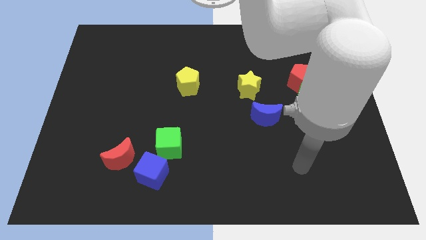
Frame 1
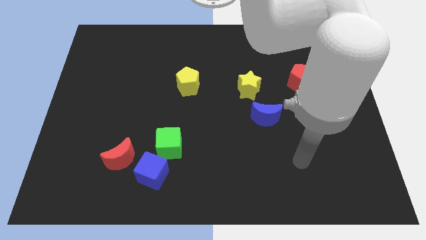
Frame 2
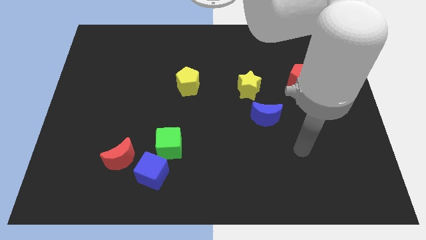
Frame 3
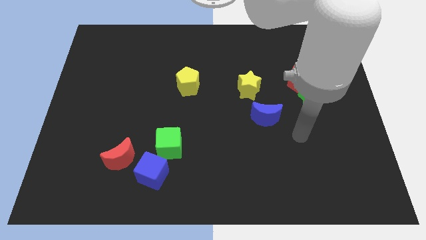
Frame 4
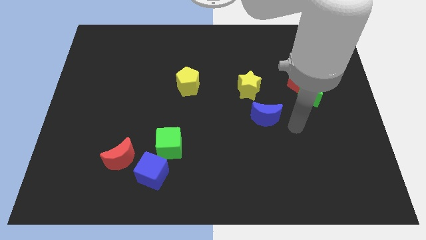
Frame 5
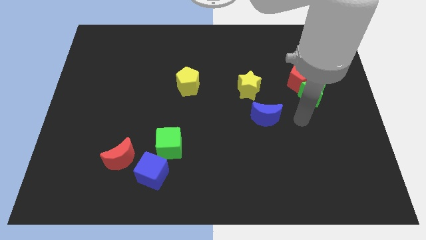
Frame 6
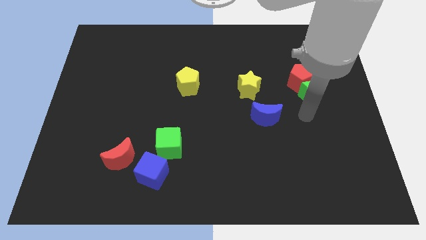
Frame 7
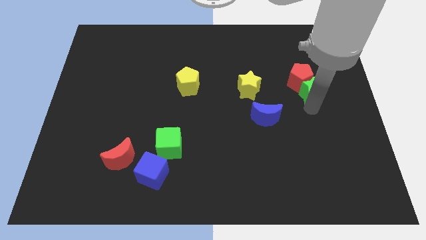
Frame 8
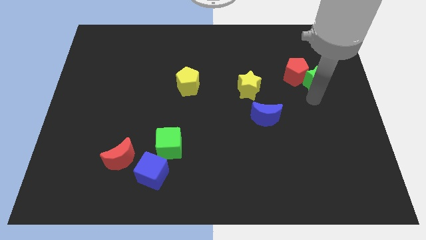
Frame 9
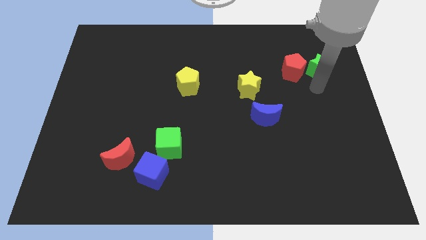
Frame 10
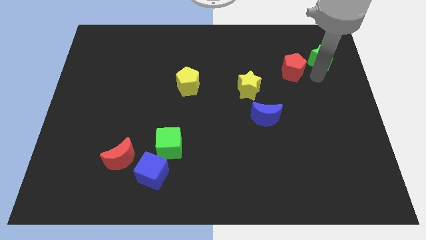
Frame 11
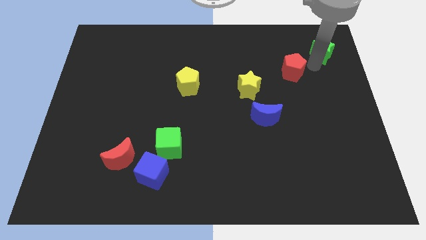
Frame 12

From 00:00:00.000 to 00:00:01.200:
pull the red pentagon apart from the green star

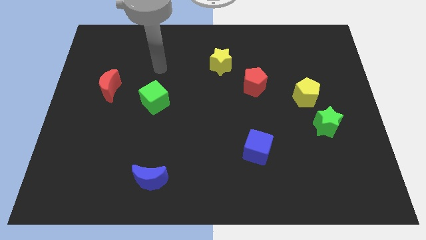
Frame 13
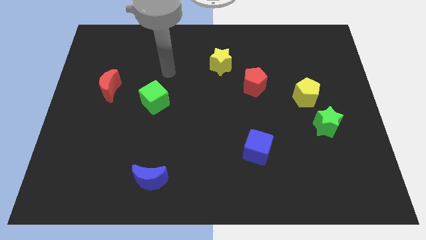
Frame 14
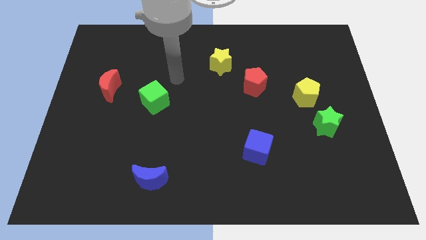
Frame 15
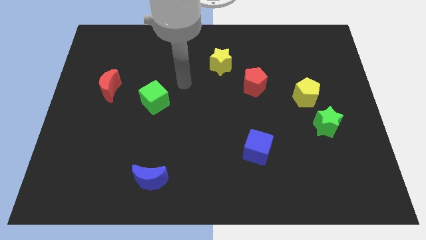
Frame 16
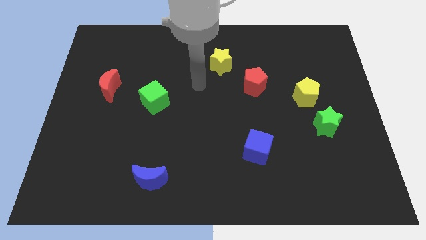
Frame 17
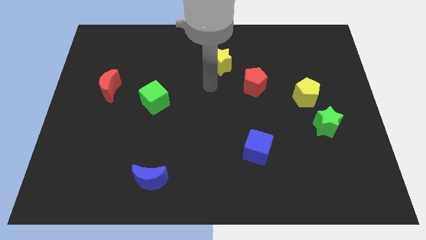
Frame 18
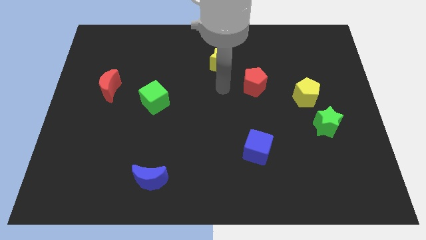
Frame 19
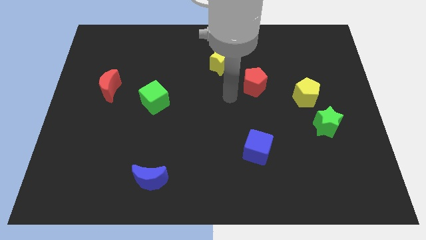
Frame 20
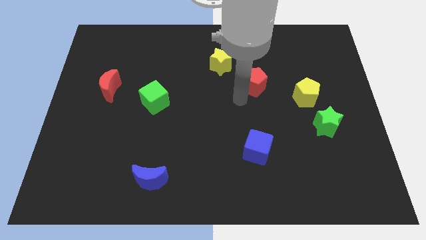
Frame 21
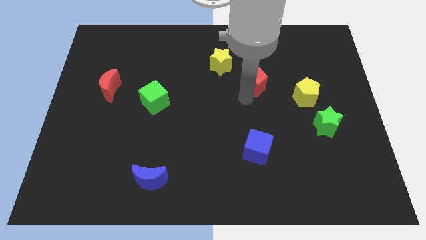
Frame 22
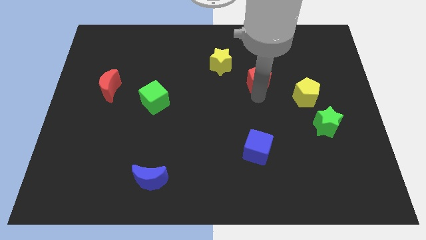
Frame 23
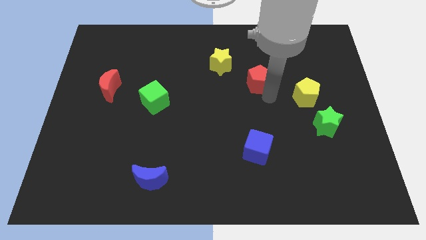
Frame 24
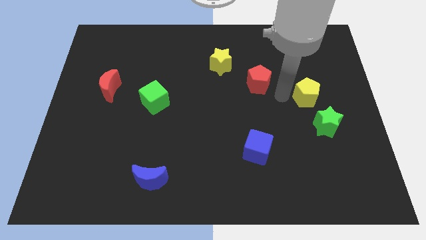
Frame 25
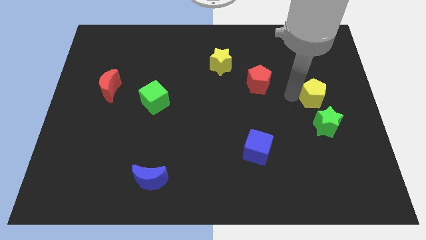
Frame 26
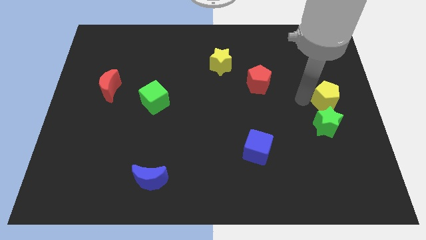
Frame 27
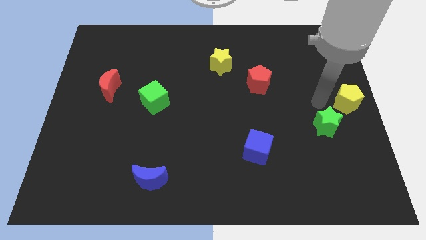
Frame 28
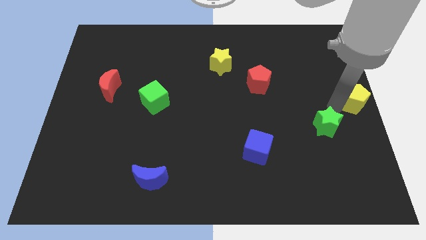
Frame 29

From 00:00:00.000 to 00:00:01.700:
move the green star away from the yellow pentagon

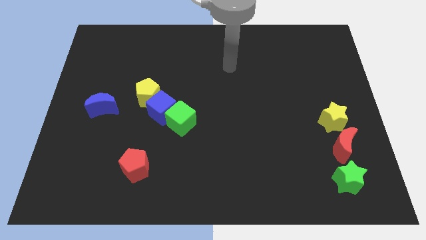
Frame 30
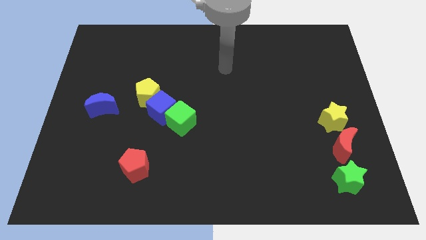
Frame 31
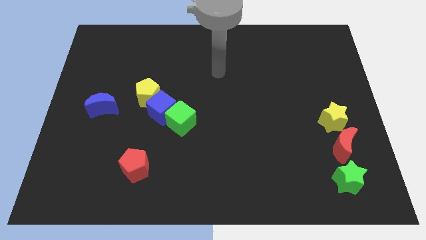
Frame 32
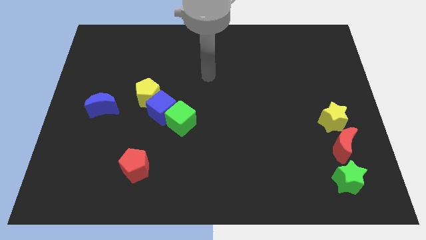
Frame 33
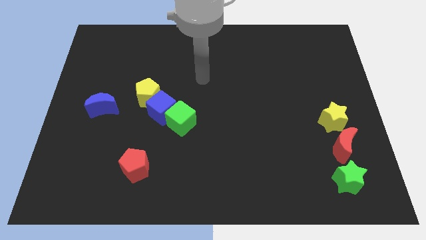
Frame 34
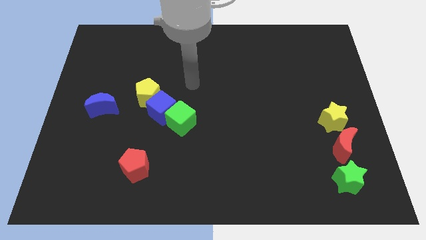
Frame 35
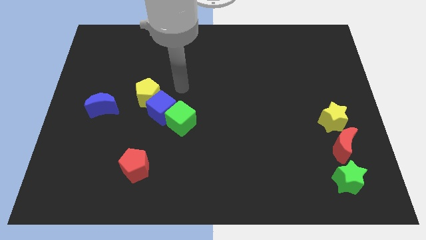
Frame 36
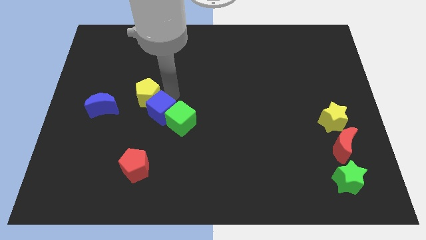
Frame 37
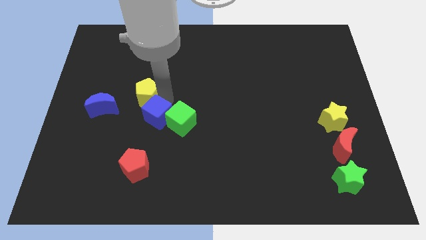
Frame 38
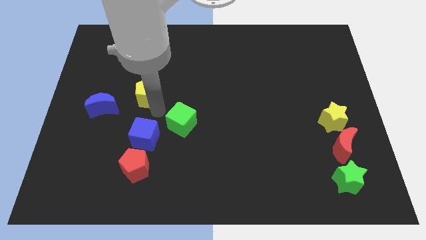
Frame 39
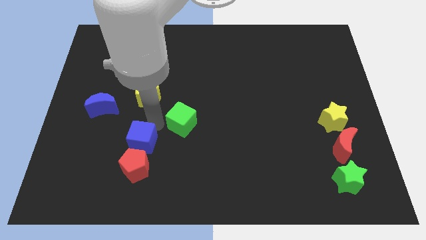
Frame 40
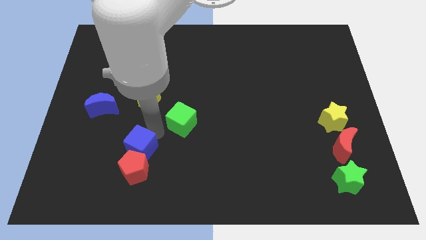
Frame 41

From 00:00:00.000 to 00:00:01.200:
move the green cube away from the blue cube

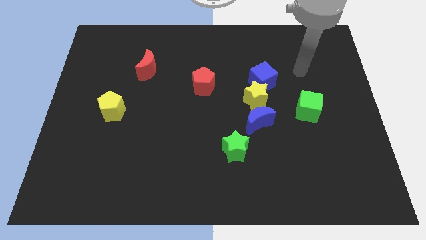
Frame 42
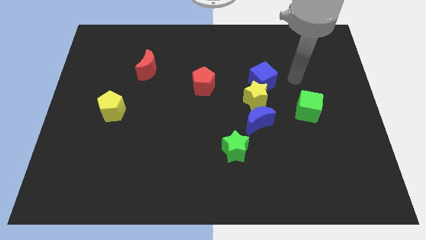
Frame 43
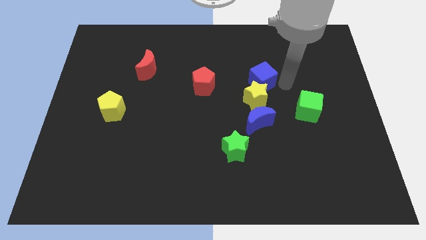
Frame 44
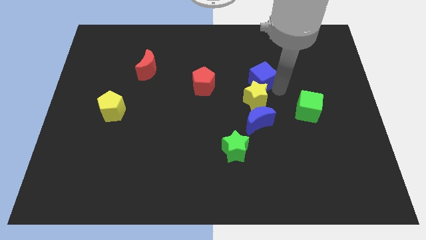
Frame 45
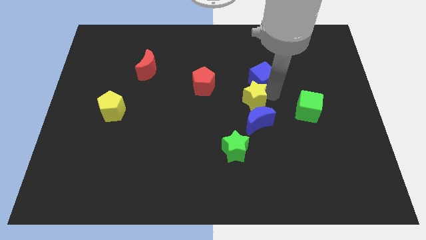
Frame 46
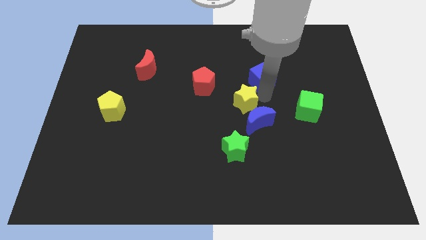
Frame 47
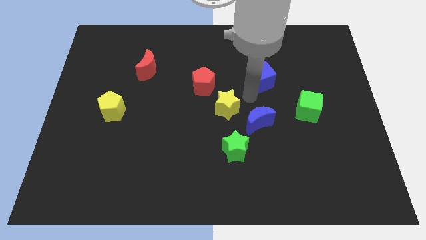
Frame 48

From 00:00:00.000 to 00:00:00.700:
separate the blue cube from the yellow star

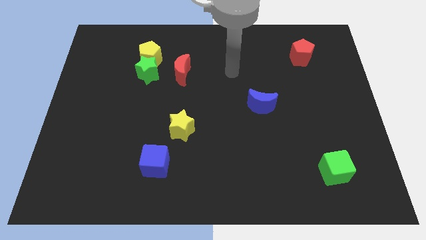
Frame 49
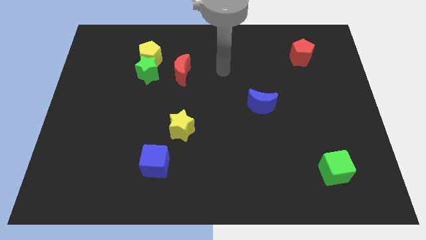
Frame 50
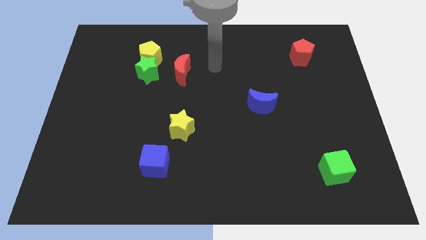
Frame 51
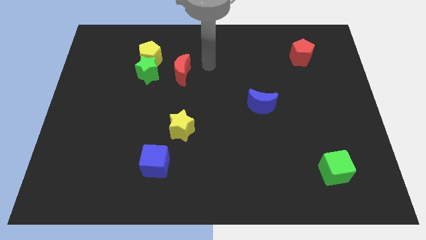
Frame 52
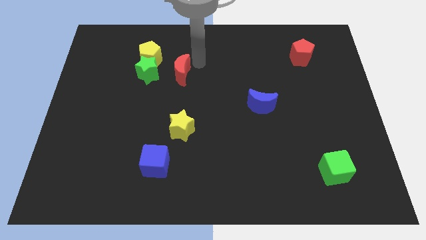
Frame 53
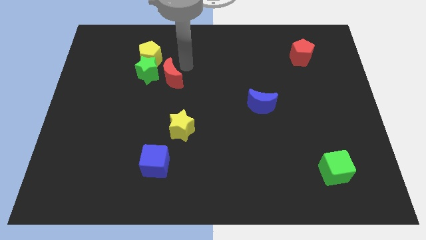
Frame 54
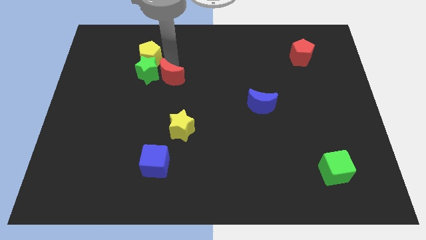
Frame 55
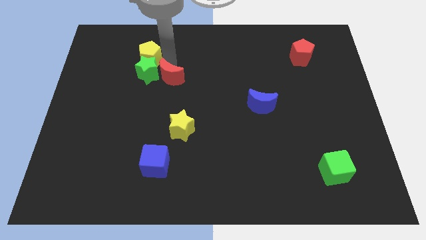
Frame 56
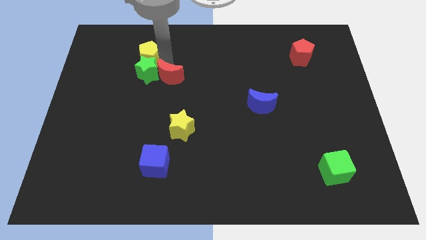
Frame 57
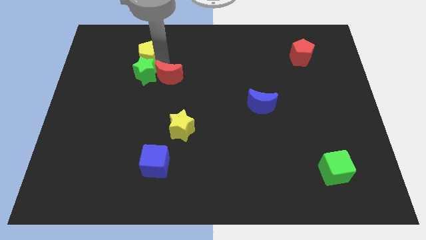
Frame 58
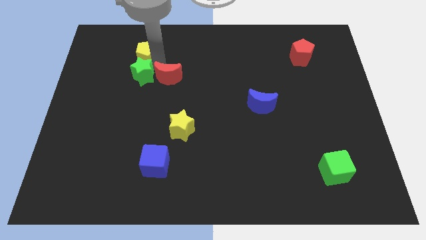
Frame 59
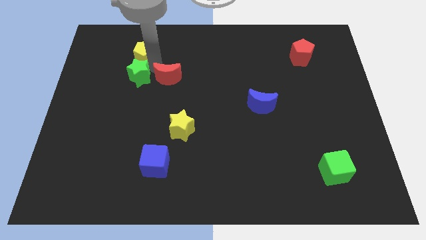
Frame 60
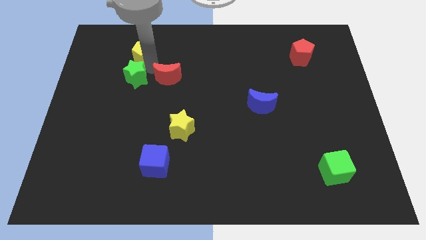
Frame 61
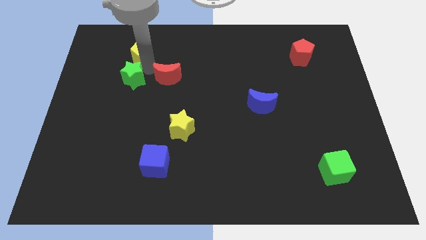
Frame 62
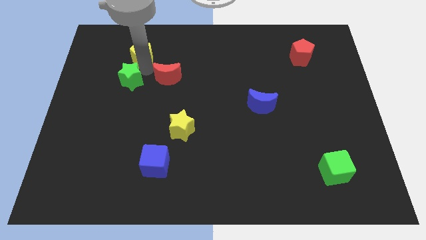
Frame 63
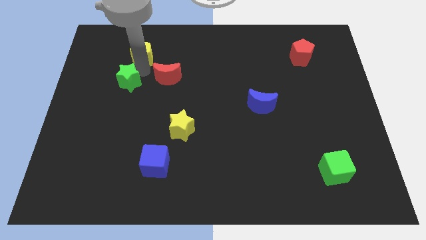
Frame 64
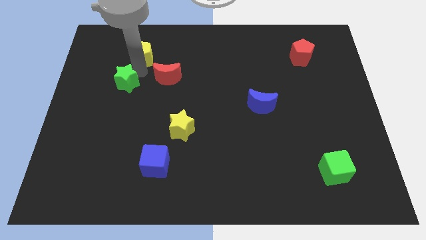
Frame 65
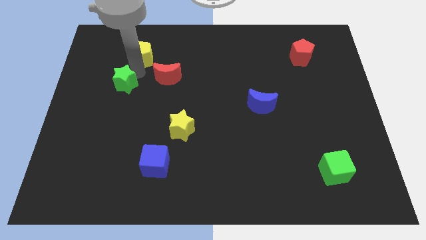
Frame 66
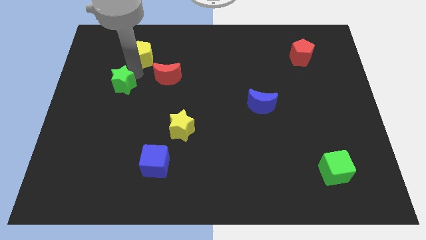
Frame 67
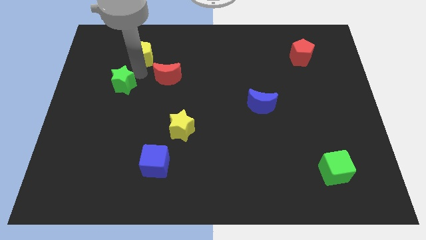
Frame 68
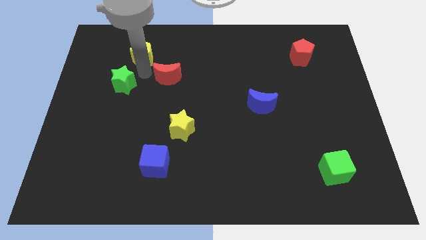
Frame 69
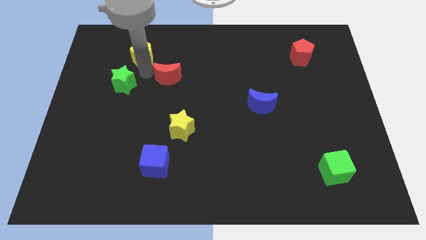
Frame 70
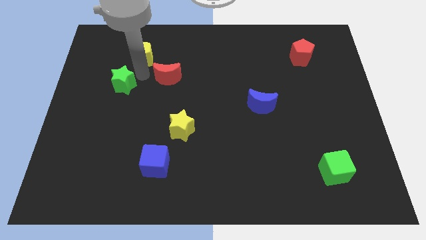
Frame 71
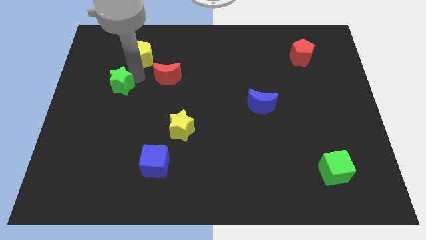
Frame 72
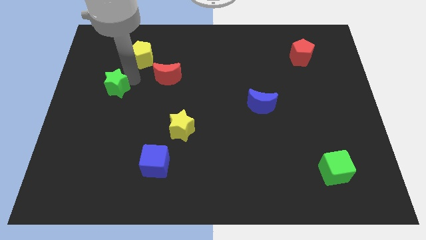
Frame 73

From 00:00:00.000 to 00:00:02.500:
pull the green star apart from the yellow pentagon and red moon

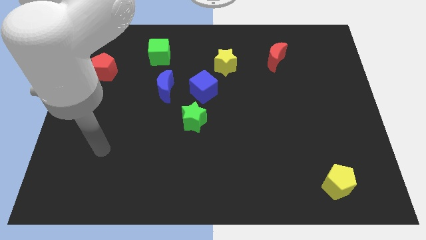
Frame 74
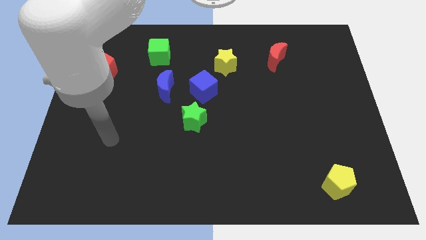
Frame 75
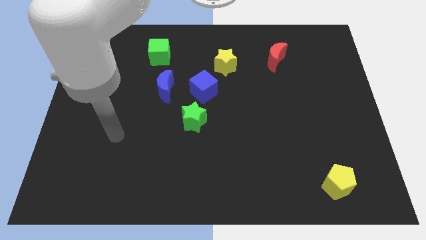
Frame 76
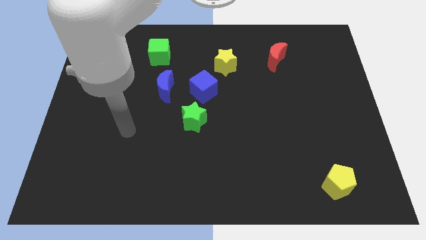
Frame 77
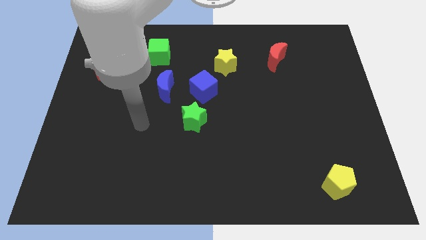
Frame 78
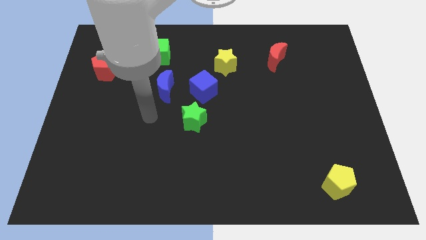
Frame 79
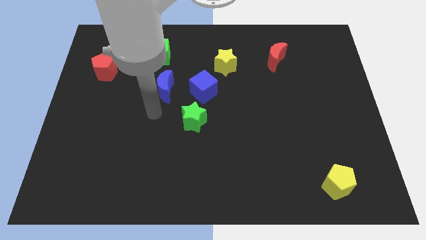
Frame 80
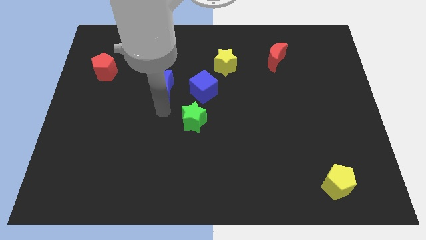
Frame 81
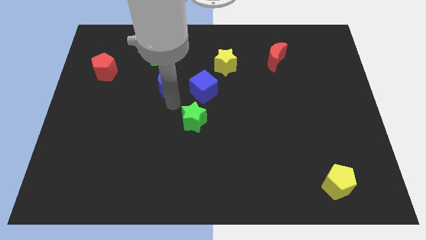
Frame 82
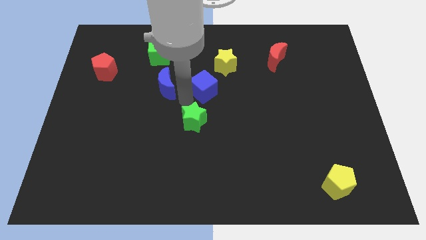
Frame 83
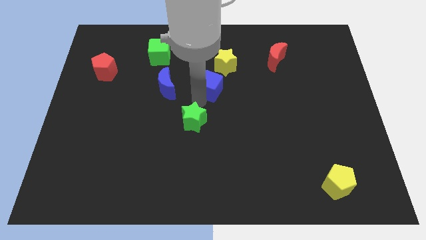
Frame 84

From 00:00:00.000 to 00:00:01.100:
separate the green star from the blue cube

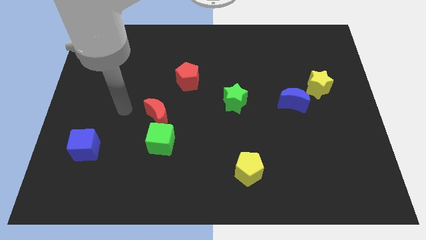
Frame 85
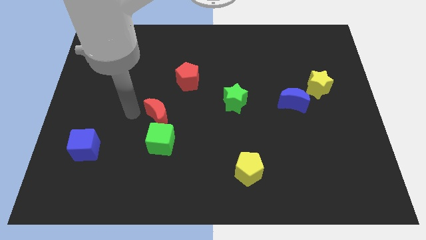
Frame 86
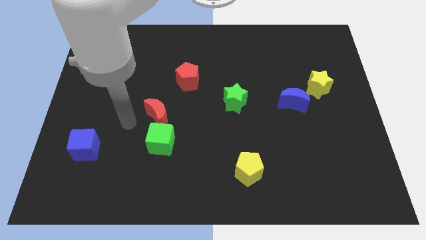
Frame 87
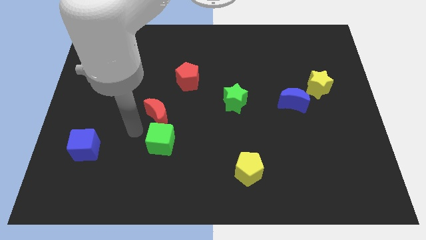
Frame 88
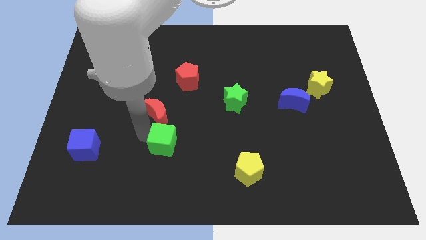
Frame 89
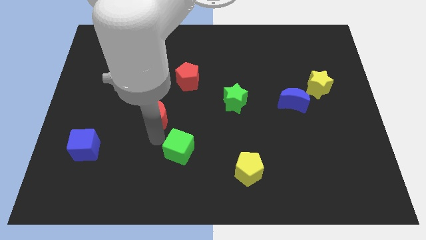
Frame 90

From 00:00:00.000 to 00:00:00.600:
pull the red moon apart from the green cube

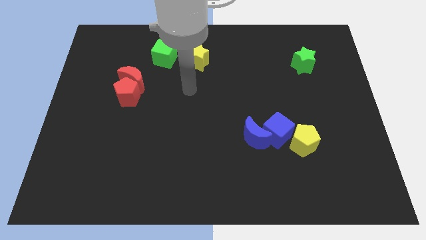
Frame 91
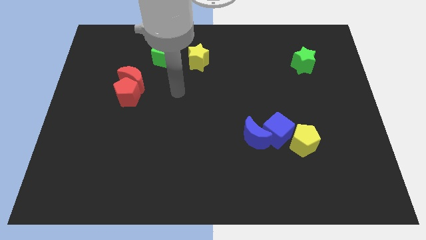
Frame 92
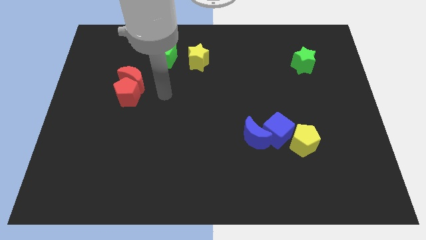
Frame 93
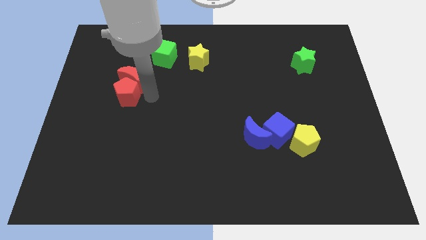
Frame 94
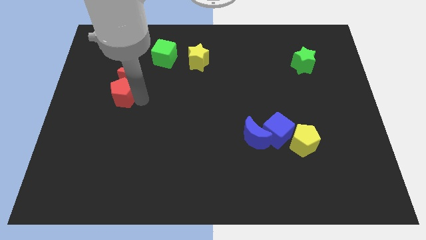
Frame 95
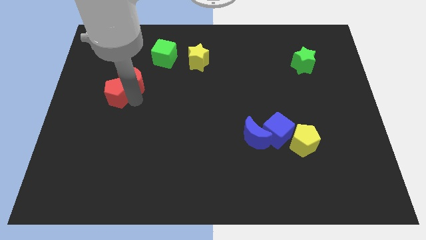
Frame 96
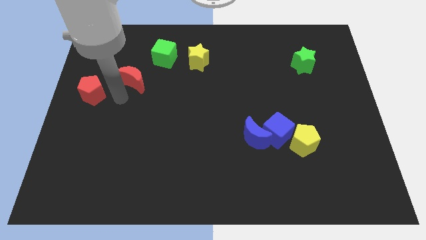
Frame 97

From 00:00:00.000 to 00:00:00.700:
pull the red moon apart from the red pentagon
